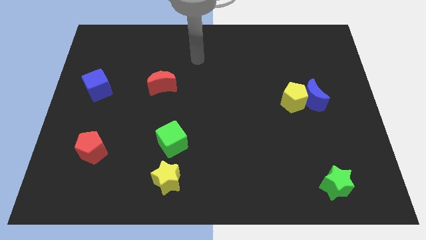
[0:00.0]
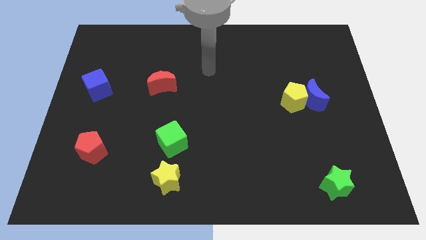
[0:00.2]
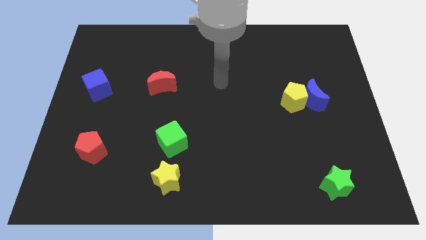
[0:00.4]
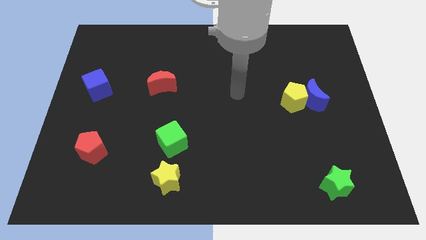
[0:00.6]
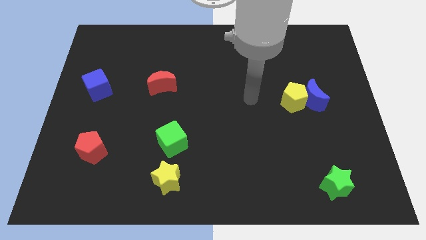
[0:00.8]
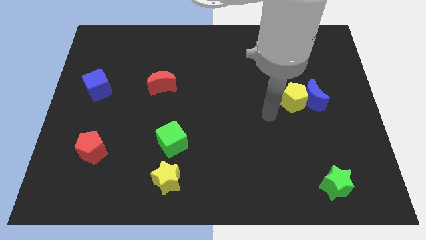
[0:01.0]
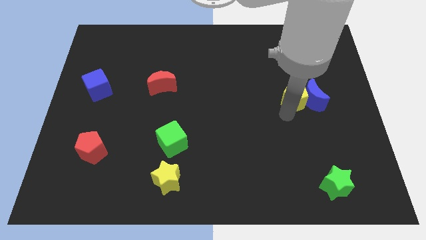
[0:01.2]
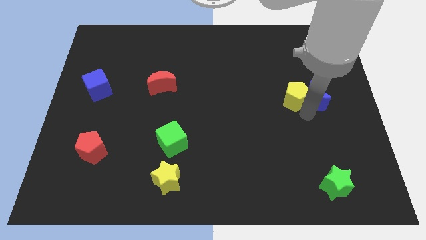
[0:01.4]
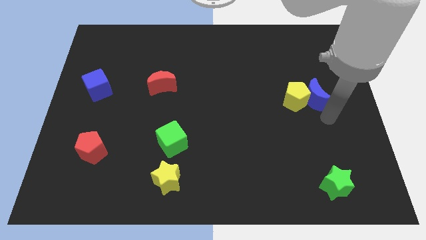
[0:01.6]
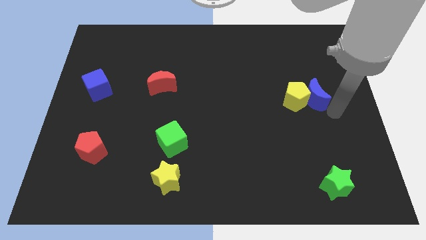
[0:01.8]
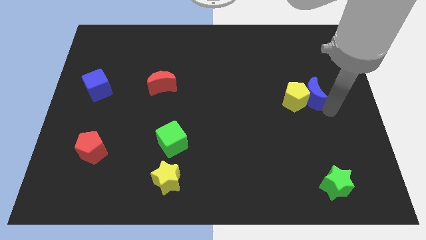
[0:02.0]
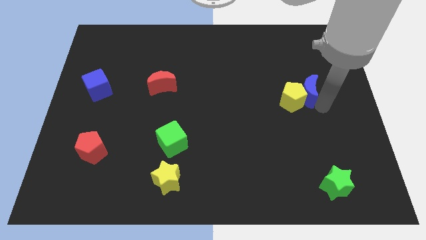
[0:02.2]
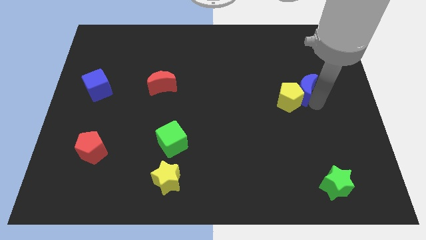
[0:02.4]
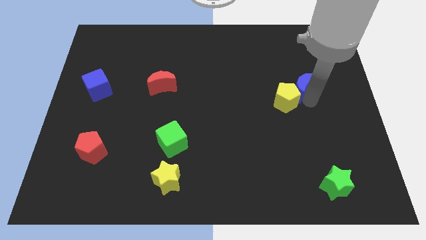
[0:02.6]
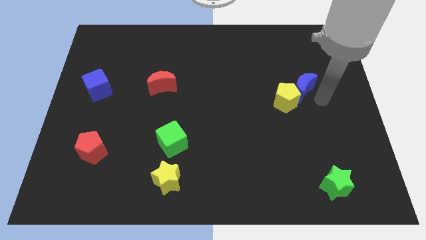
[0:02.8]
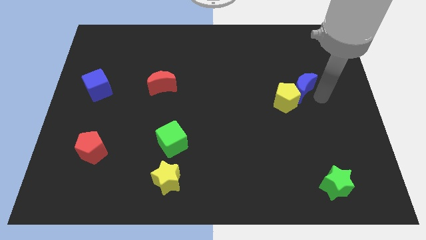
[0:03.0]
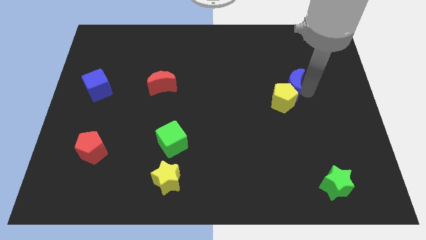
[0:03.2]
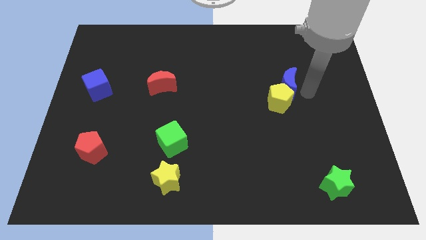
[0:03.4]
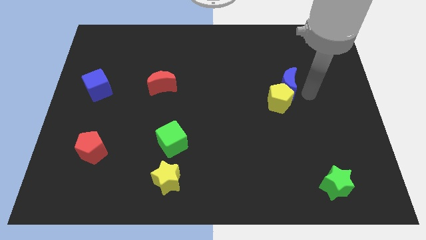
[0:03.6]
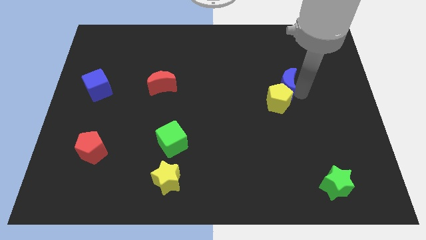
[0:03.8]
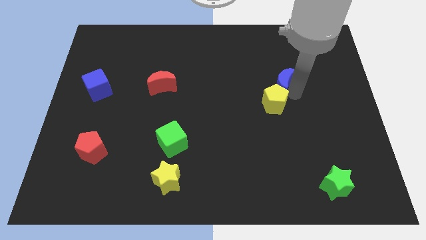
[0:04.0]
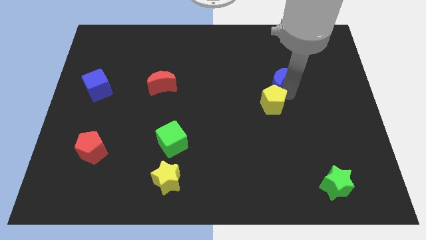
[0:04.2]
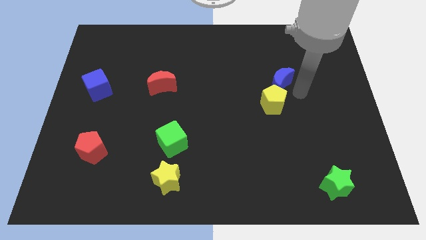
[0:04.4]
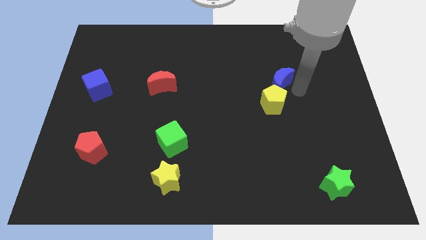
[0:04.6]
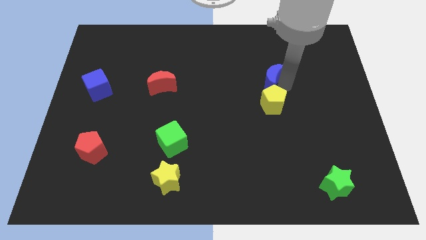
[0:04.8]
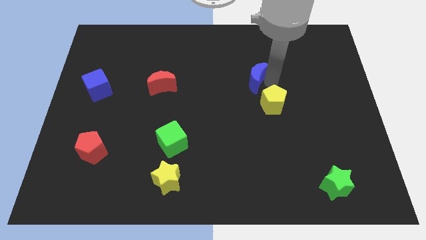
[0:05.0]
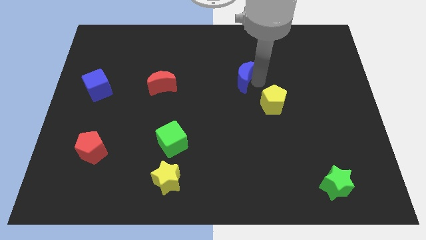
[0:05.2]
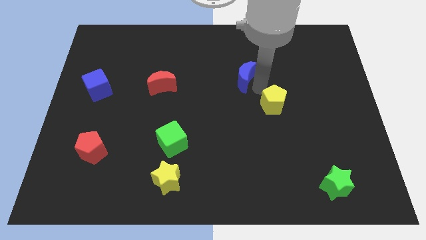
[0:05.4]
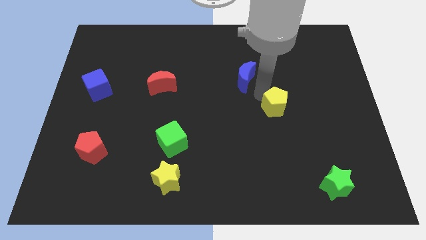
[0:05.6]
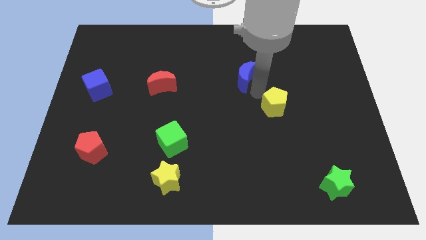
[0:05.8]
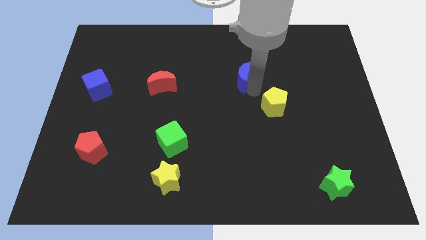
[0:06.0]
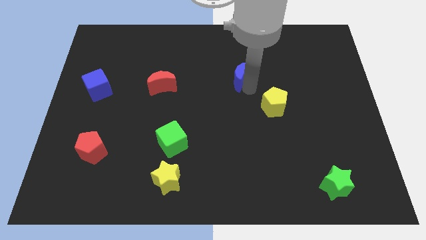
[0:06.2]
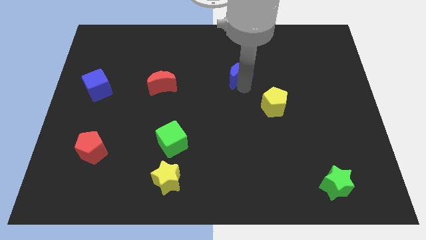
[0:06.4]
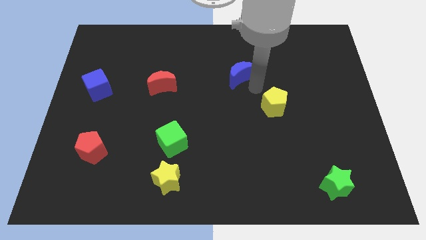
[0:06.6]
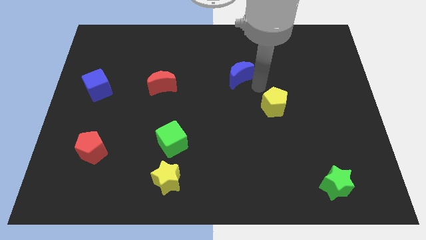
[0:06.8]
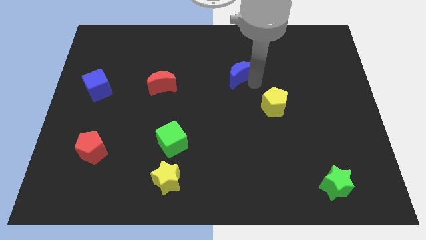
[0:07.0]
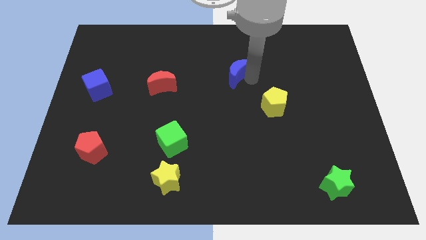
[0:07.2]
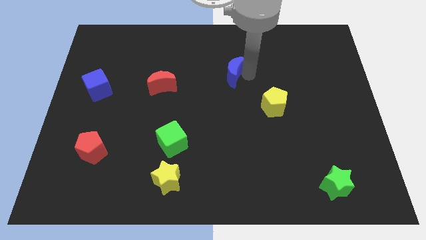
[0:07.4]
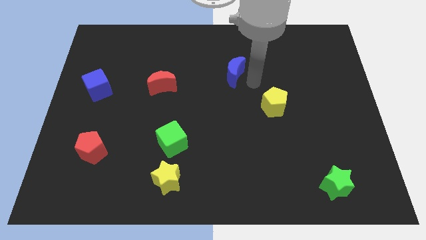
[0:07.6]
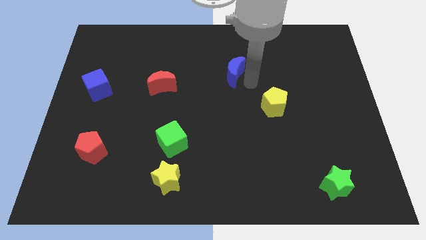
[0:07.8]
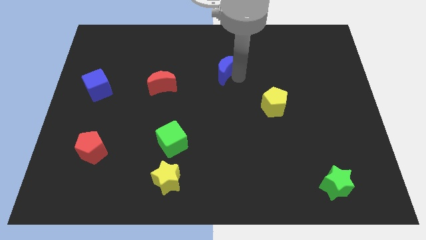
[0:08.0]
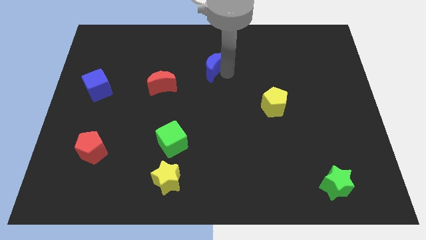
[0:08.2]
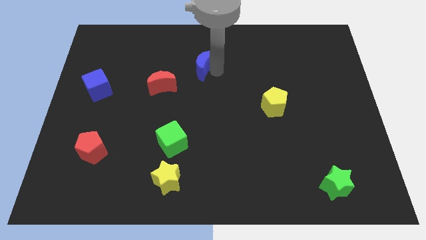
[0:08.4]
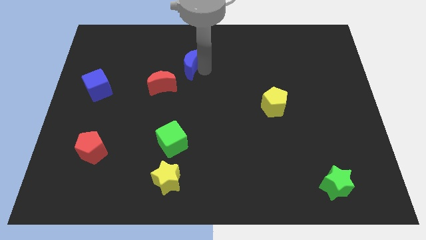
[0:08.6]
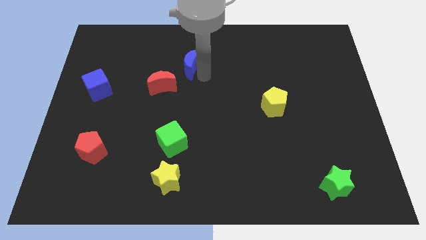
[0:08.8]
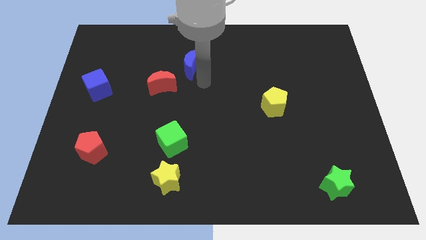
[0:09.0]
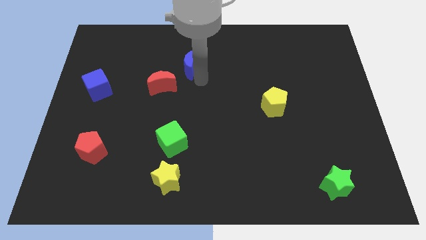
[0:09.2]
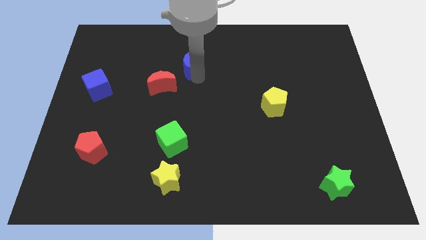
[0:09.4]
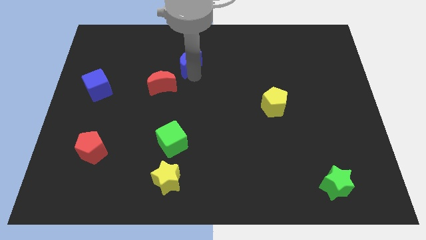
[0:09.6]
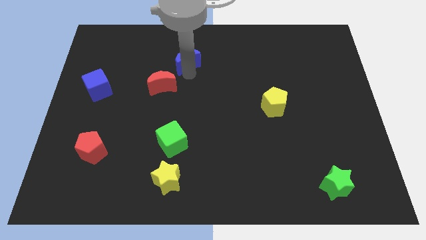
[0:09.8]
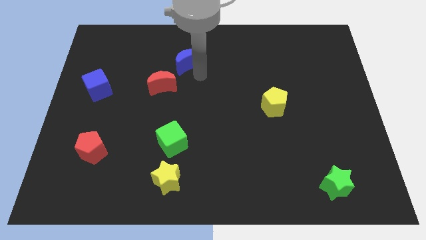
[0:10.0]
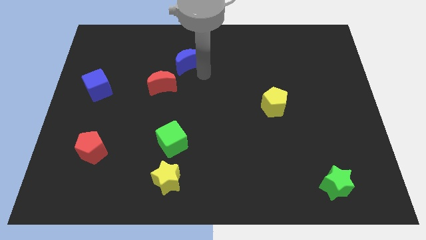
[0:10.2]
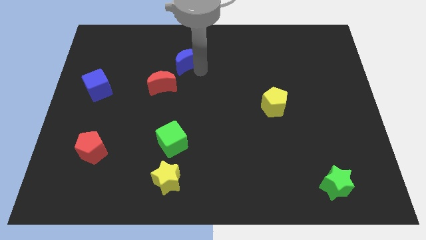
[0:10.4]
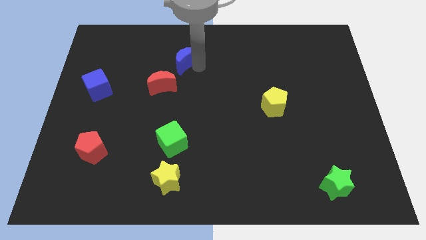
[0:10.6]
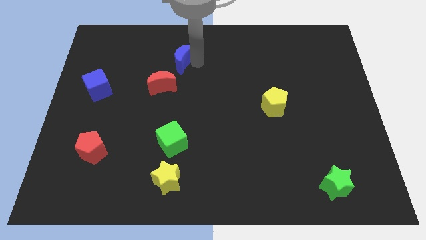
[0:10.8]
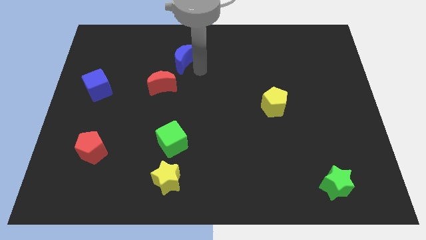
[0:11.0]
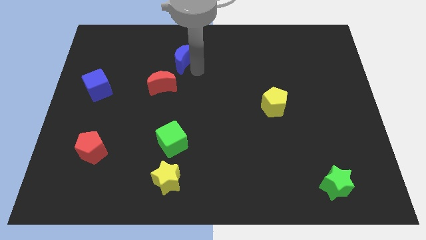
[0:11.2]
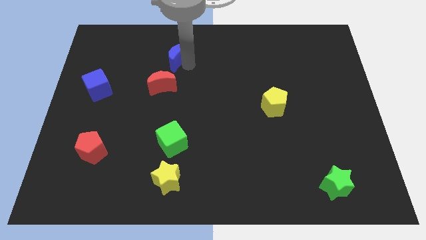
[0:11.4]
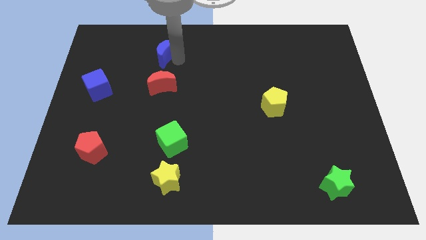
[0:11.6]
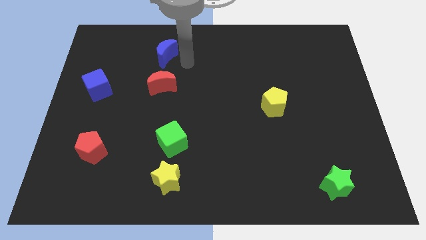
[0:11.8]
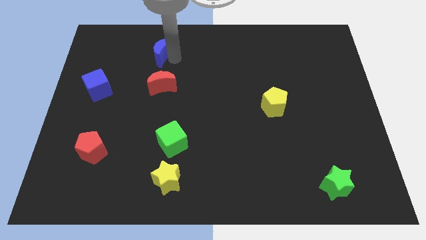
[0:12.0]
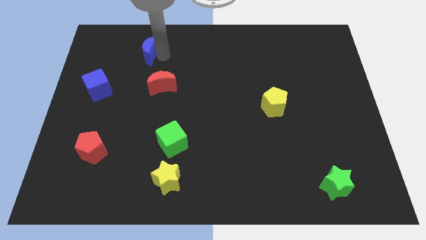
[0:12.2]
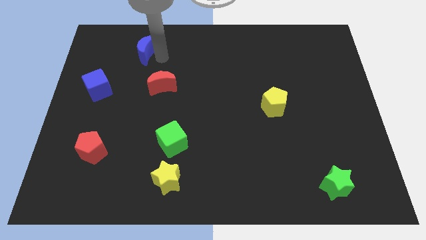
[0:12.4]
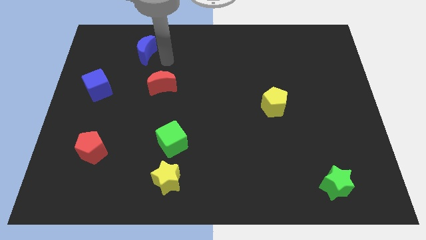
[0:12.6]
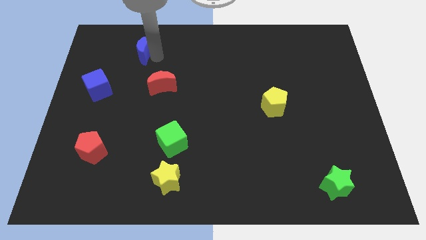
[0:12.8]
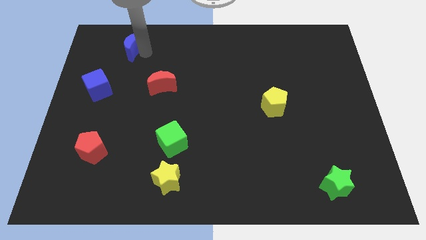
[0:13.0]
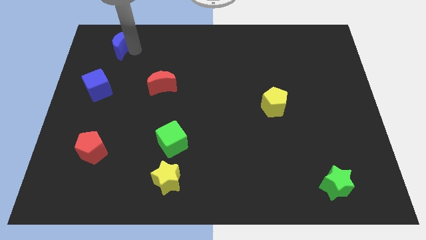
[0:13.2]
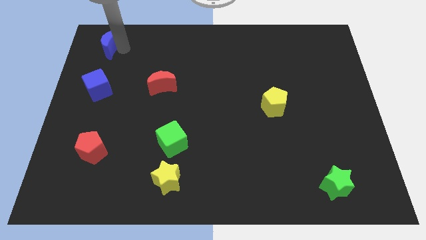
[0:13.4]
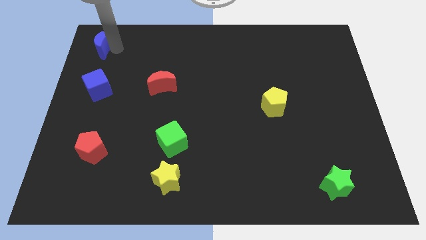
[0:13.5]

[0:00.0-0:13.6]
move the blue moon to the top left
